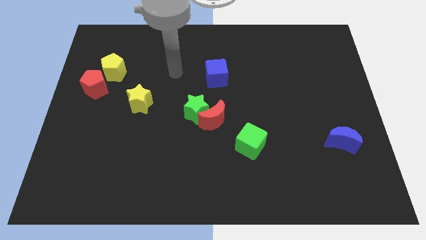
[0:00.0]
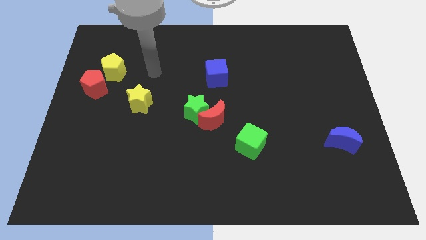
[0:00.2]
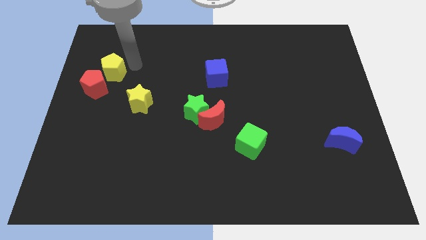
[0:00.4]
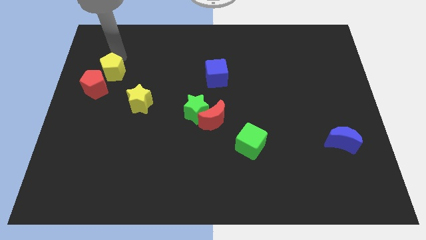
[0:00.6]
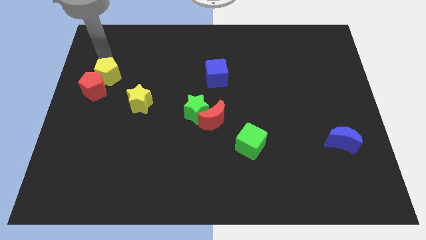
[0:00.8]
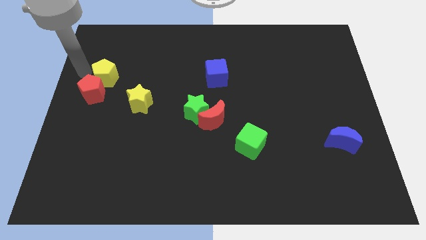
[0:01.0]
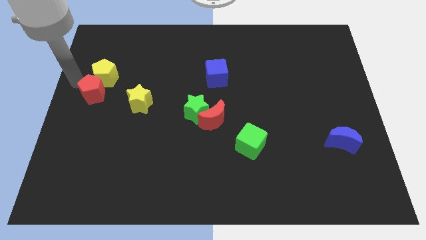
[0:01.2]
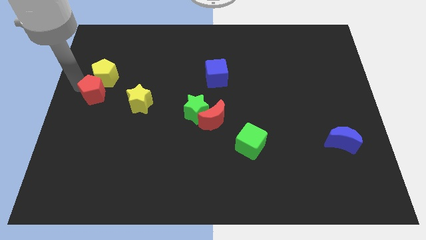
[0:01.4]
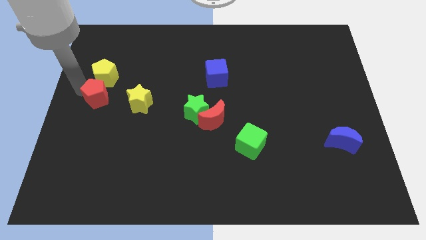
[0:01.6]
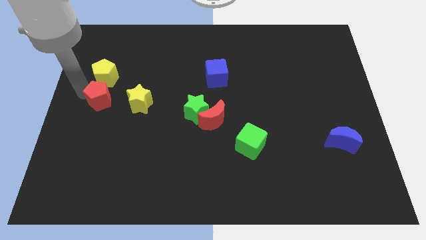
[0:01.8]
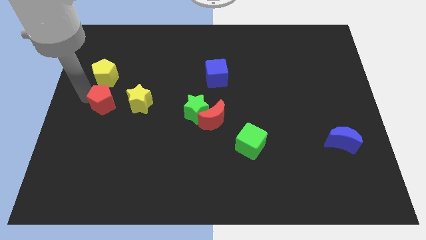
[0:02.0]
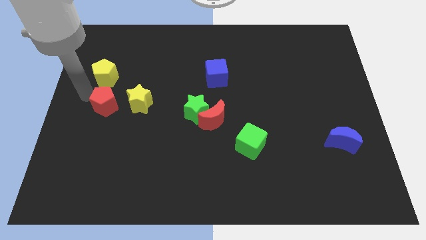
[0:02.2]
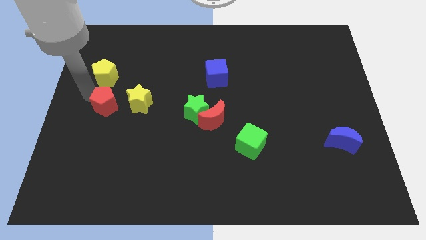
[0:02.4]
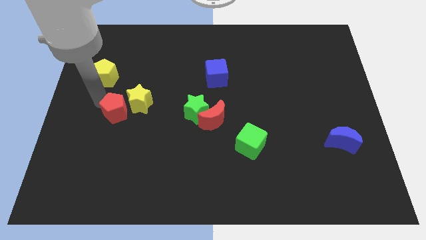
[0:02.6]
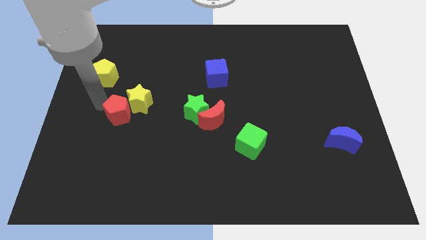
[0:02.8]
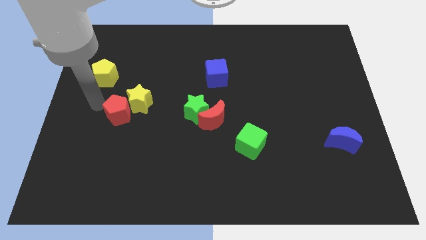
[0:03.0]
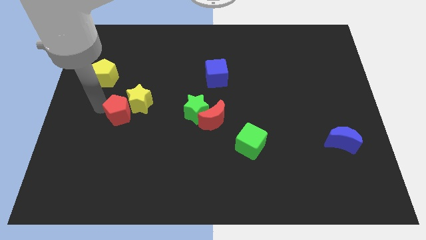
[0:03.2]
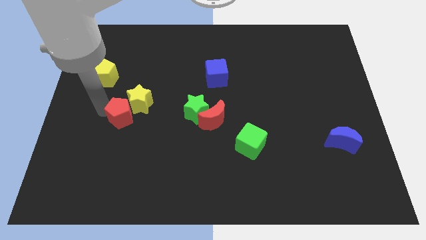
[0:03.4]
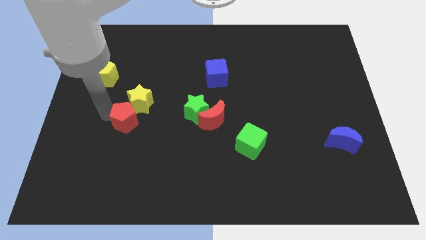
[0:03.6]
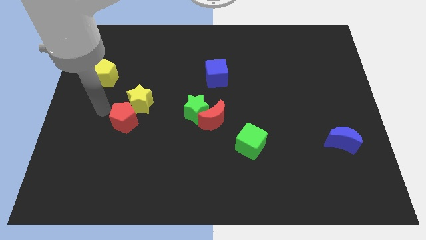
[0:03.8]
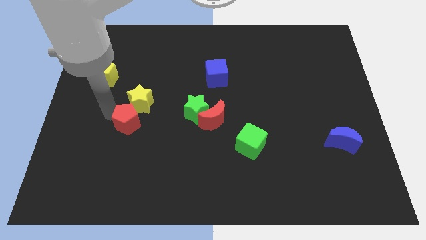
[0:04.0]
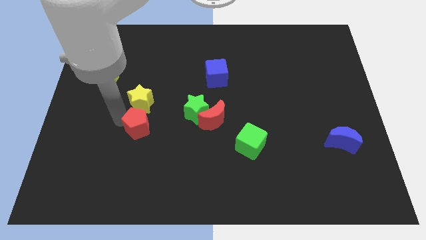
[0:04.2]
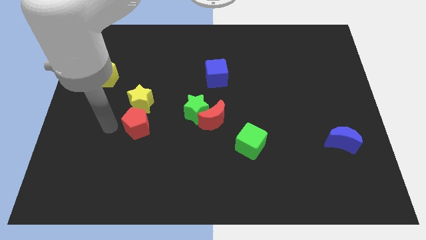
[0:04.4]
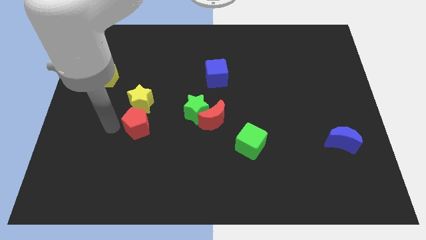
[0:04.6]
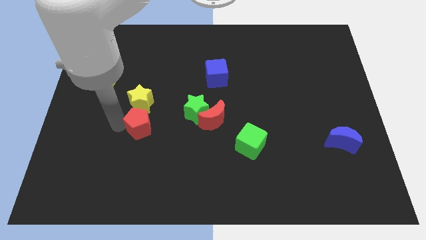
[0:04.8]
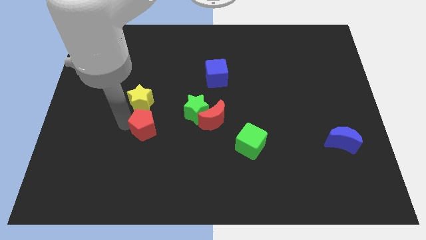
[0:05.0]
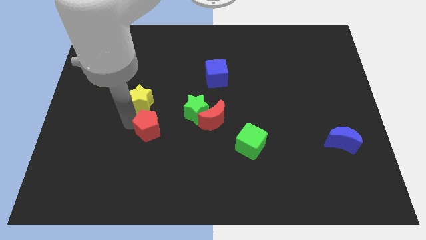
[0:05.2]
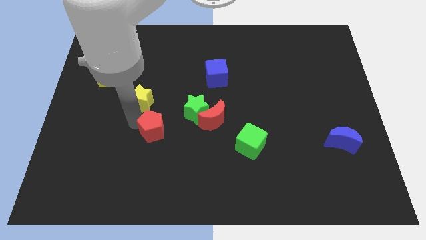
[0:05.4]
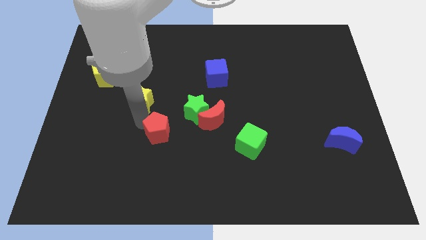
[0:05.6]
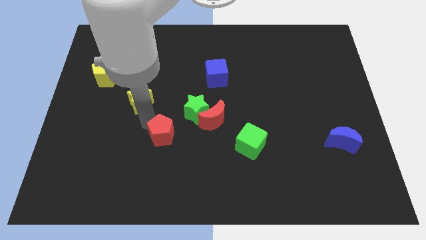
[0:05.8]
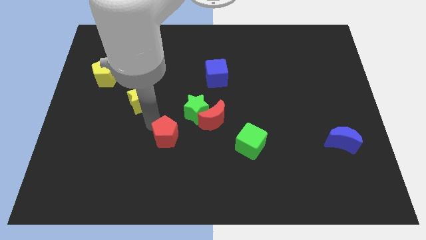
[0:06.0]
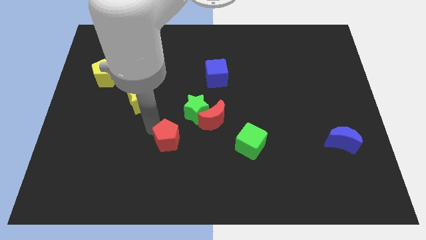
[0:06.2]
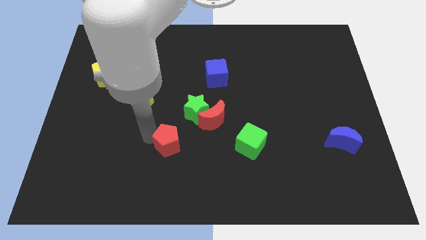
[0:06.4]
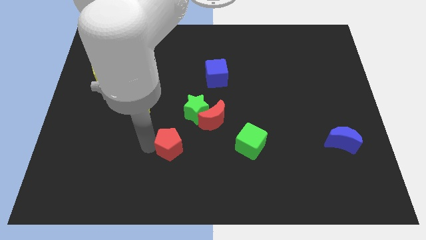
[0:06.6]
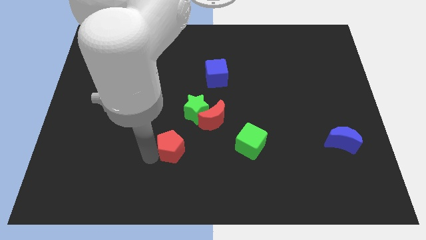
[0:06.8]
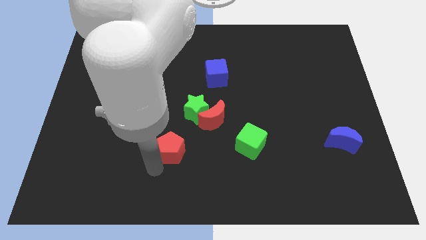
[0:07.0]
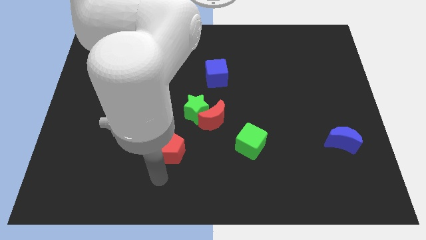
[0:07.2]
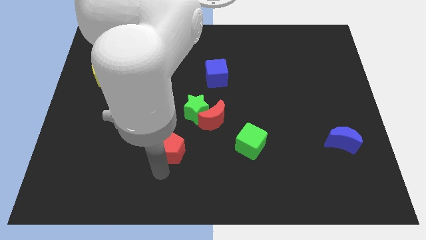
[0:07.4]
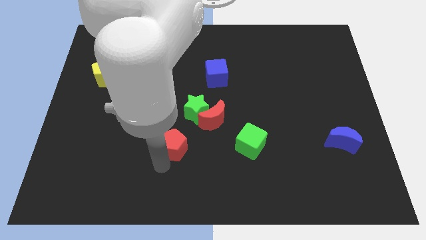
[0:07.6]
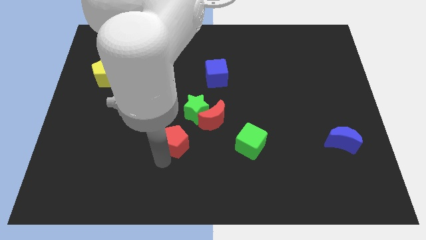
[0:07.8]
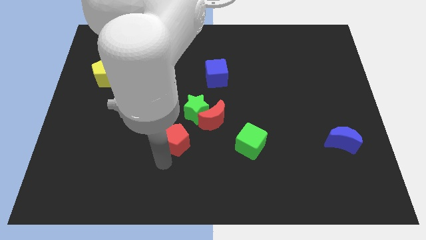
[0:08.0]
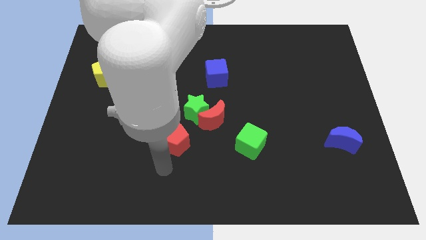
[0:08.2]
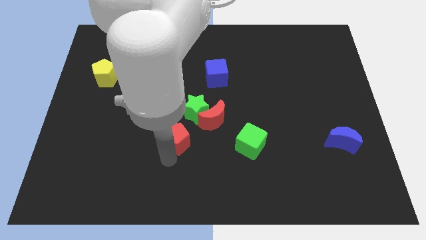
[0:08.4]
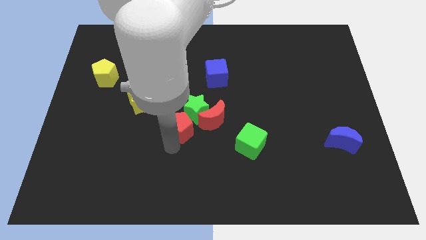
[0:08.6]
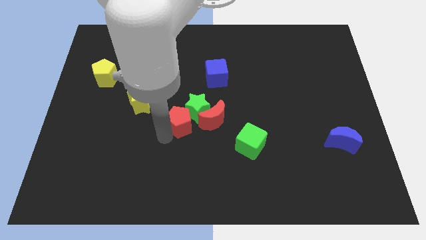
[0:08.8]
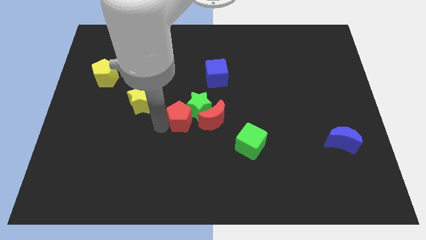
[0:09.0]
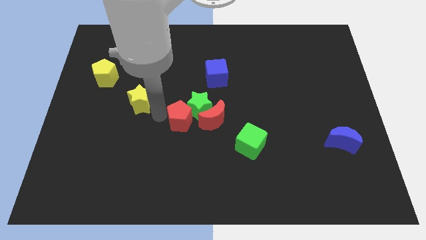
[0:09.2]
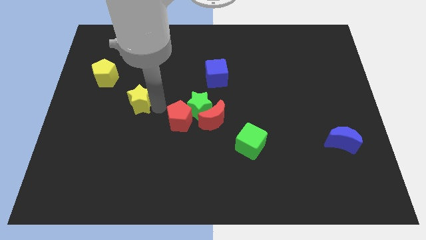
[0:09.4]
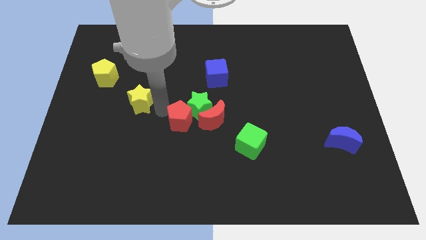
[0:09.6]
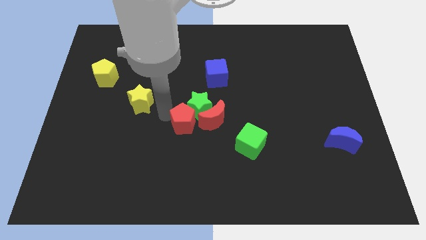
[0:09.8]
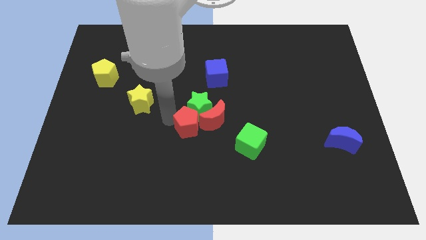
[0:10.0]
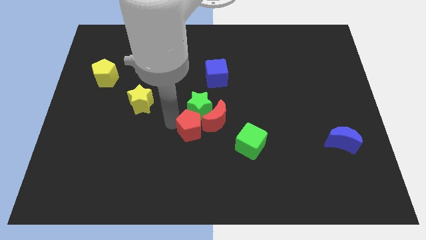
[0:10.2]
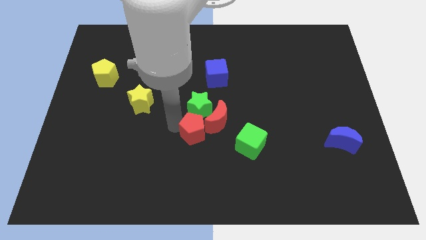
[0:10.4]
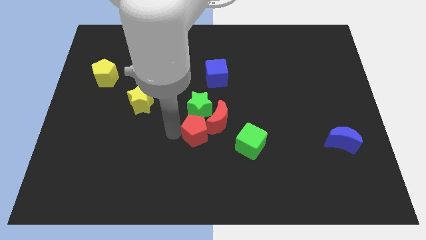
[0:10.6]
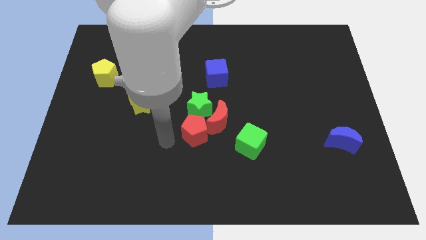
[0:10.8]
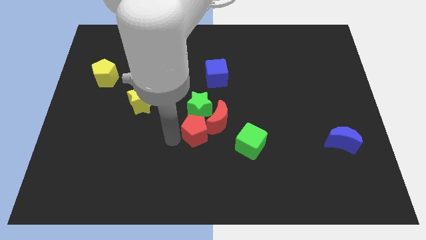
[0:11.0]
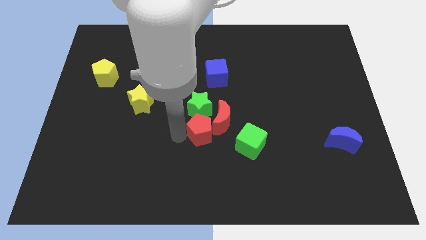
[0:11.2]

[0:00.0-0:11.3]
move the red pentagon to the bottom right of the green star
